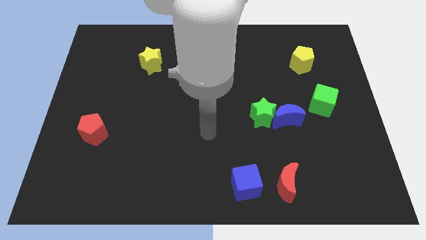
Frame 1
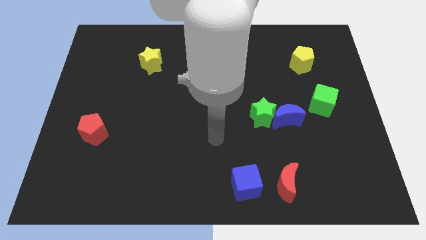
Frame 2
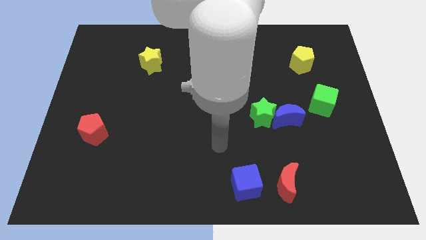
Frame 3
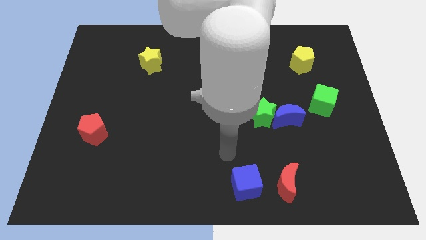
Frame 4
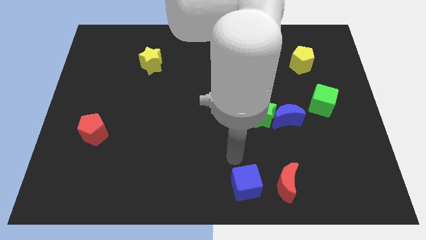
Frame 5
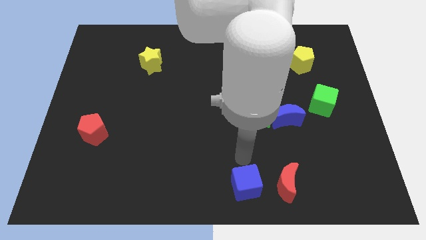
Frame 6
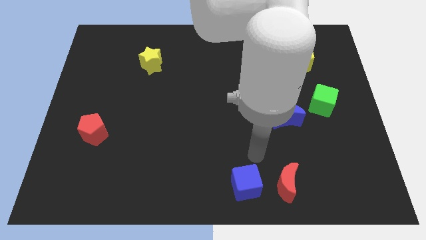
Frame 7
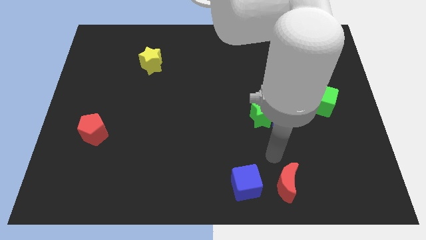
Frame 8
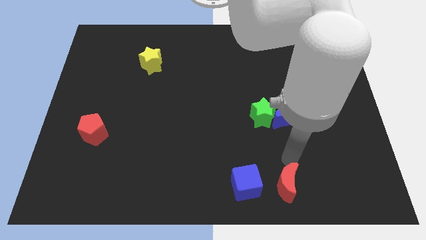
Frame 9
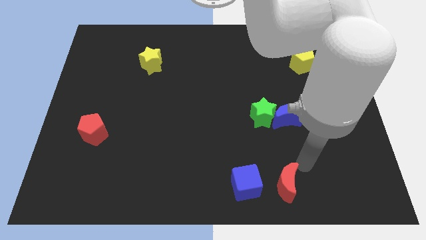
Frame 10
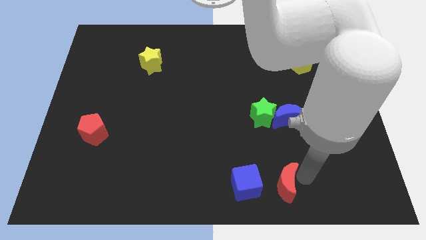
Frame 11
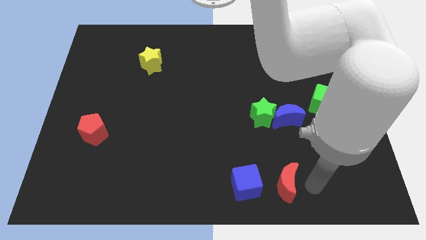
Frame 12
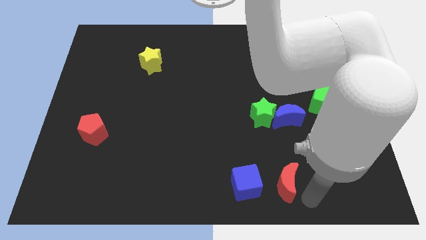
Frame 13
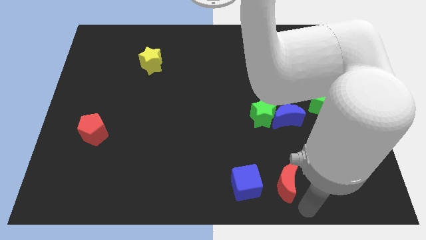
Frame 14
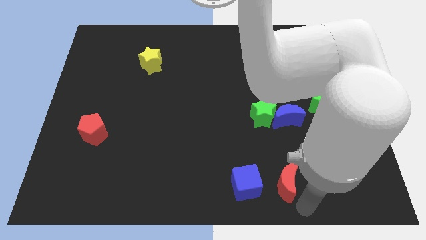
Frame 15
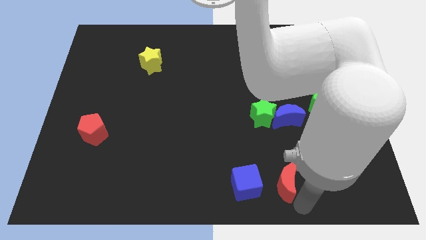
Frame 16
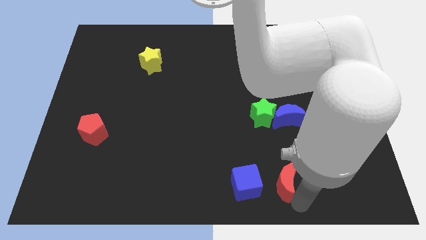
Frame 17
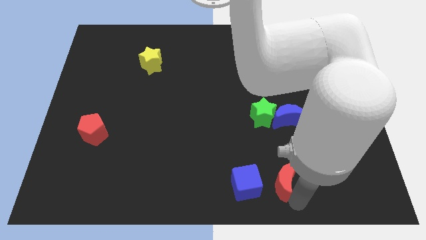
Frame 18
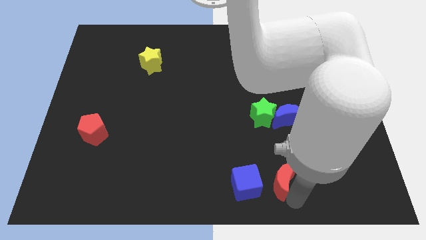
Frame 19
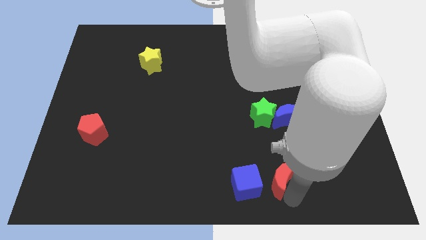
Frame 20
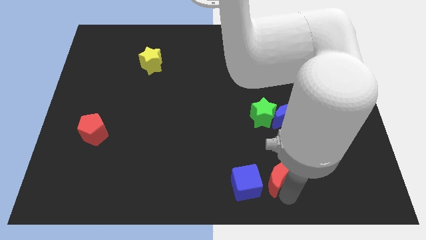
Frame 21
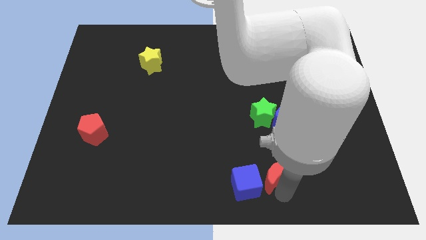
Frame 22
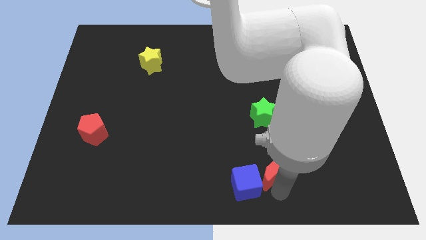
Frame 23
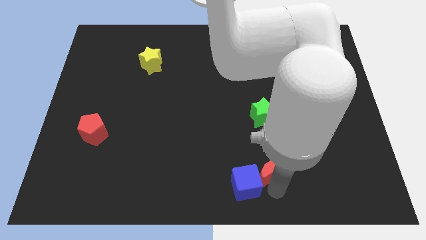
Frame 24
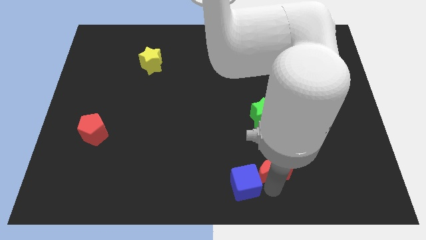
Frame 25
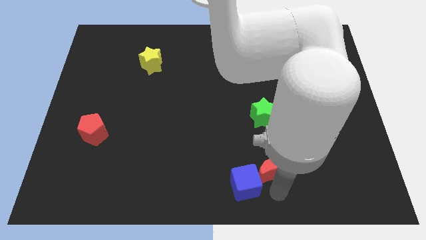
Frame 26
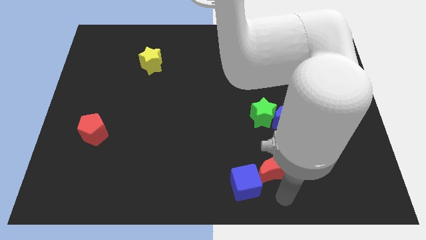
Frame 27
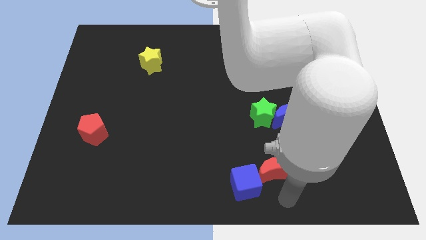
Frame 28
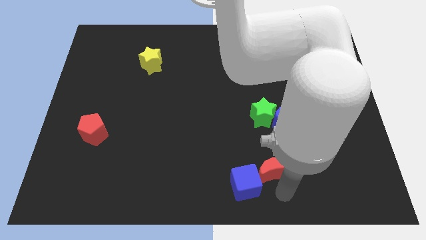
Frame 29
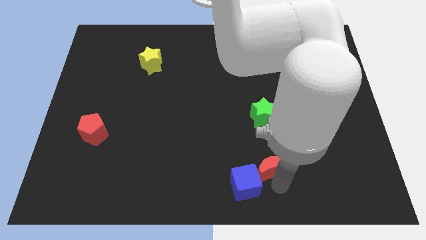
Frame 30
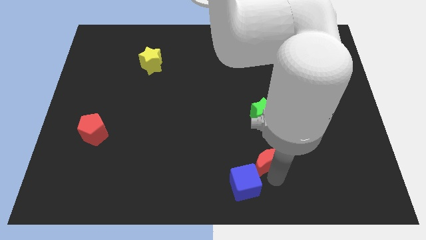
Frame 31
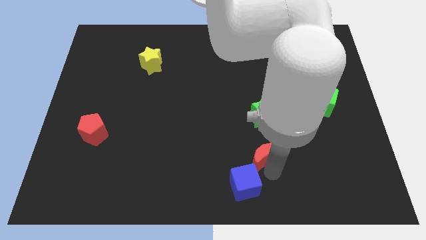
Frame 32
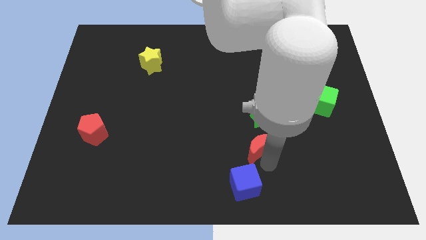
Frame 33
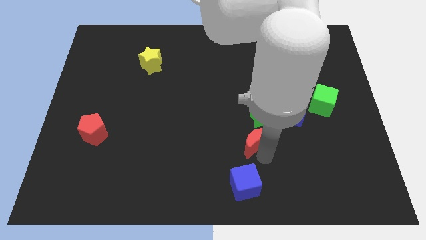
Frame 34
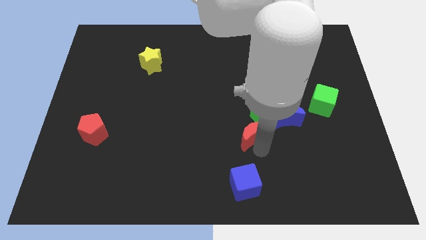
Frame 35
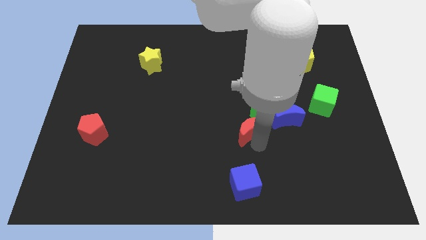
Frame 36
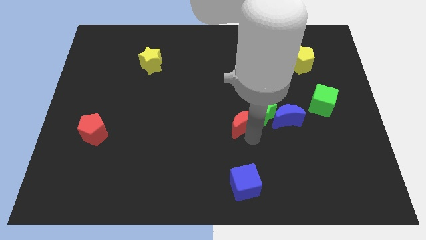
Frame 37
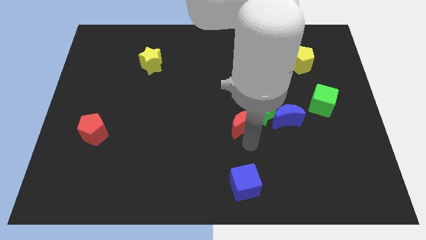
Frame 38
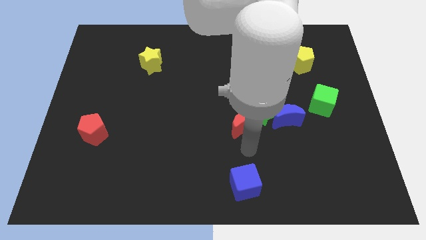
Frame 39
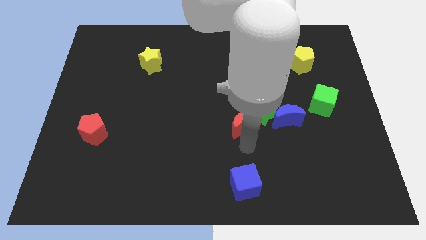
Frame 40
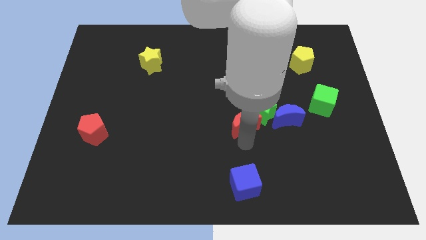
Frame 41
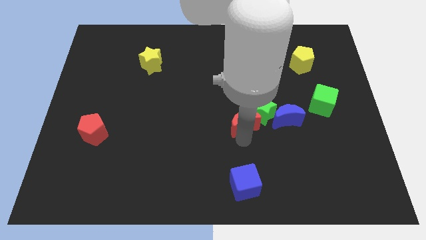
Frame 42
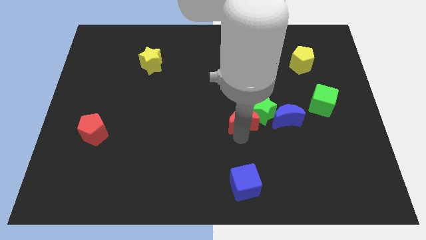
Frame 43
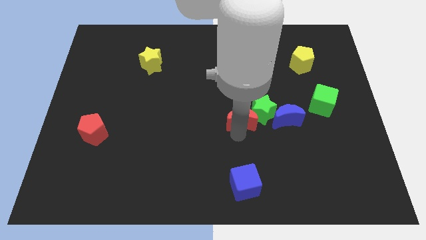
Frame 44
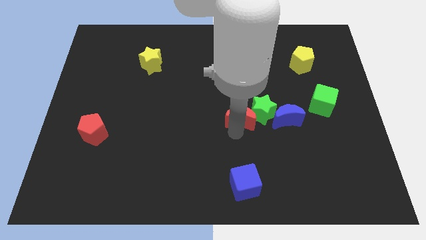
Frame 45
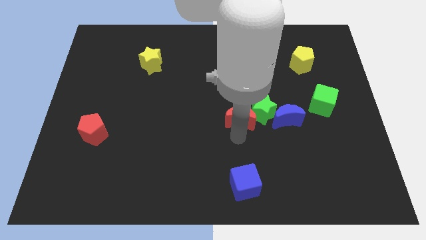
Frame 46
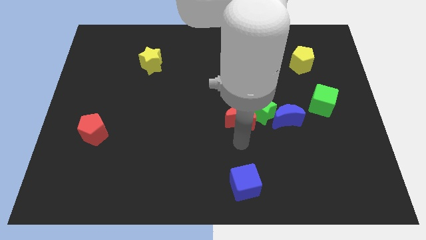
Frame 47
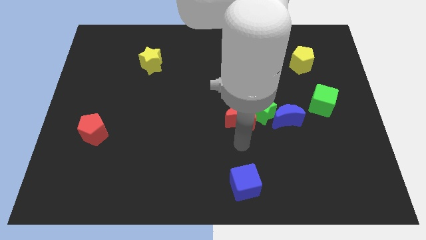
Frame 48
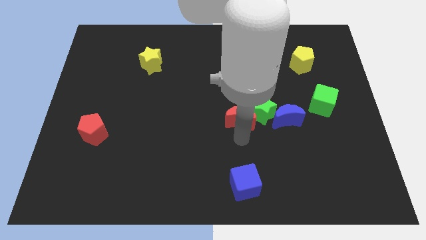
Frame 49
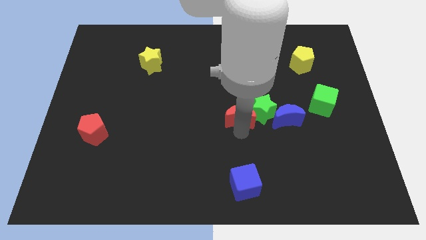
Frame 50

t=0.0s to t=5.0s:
push the red moon diagonally up and to the left of the green star

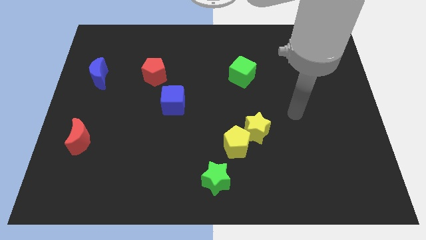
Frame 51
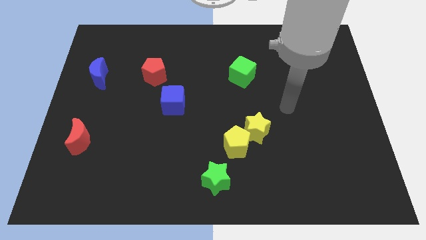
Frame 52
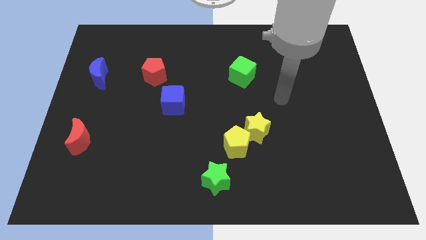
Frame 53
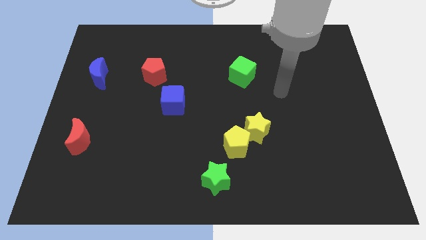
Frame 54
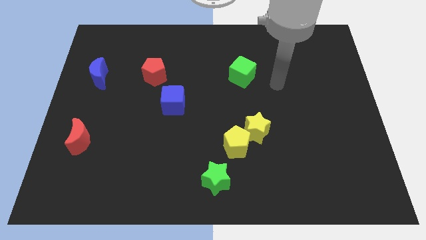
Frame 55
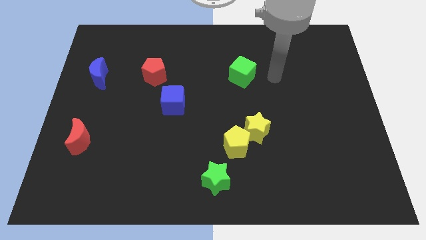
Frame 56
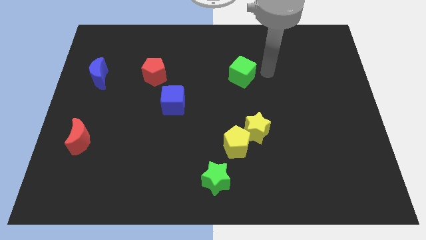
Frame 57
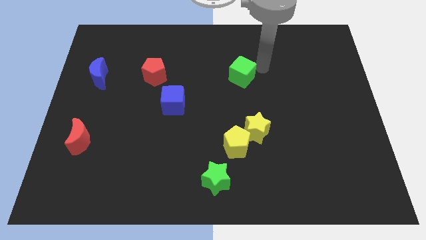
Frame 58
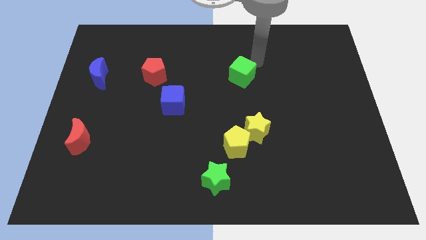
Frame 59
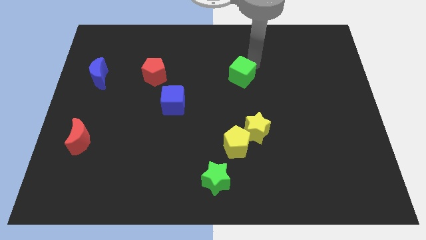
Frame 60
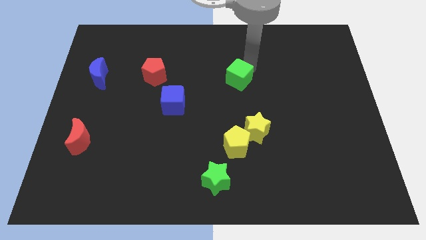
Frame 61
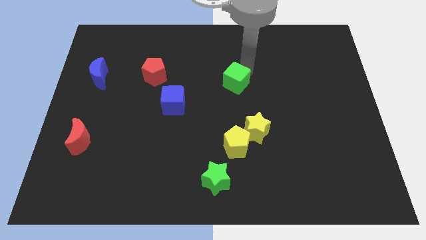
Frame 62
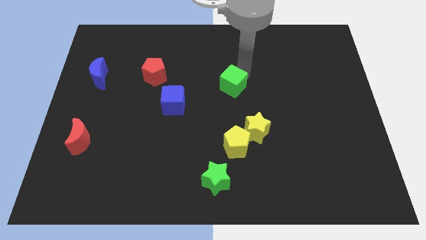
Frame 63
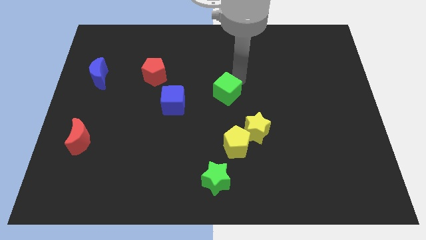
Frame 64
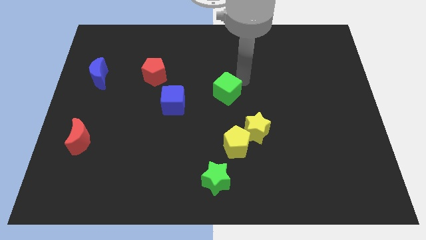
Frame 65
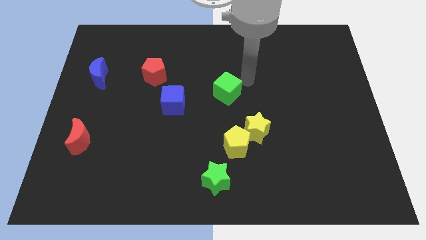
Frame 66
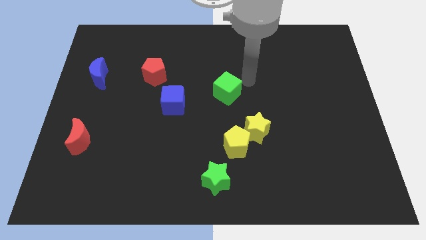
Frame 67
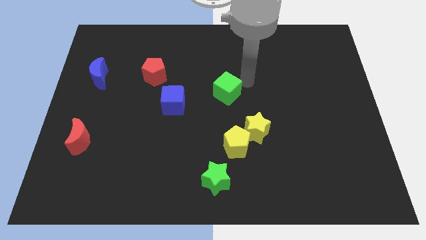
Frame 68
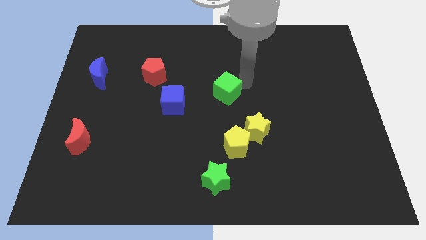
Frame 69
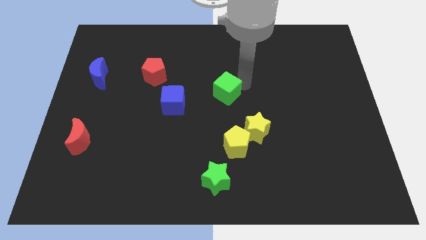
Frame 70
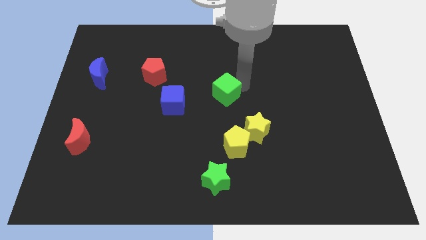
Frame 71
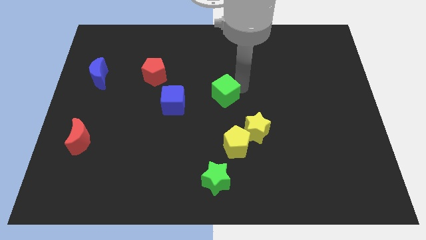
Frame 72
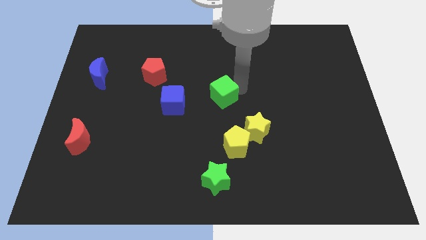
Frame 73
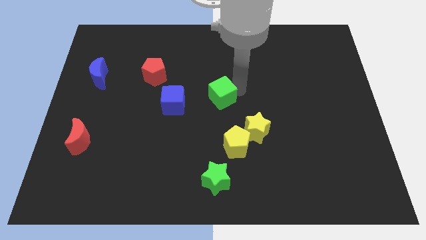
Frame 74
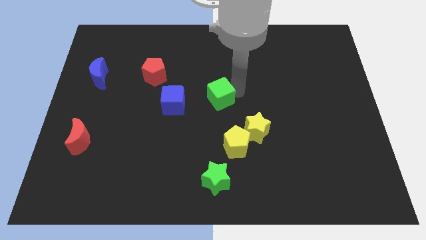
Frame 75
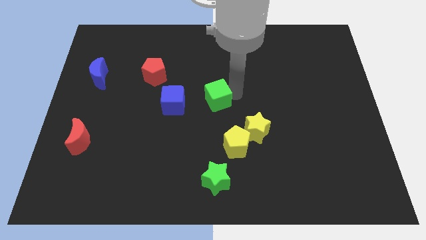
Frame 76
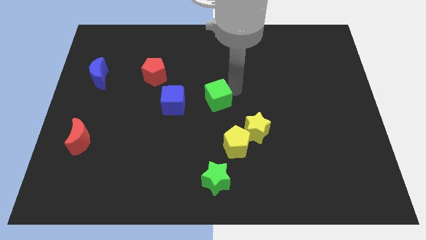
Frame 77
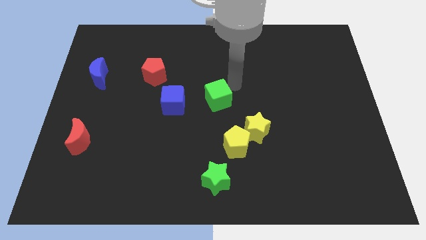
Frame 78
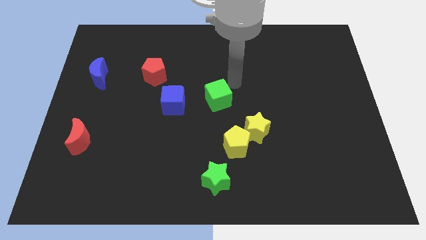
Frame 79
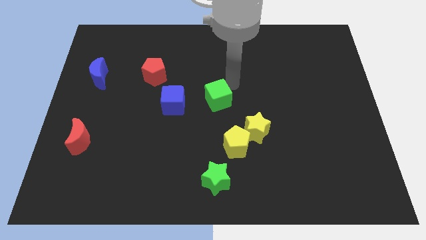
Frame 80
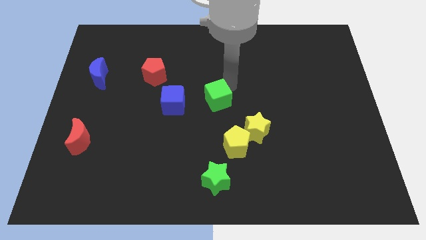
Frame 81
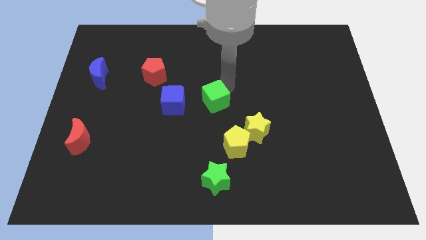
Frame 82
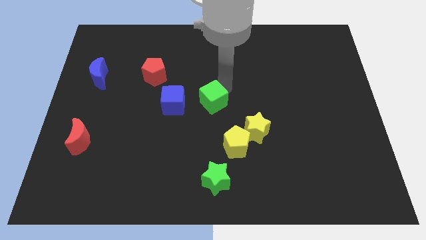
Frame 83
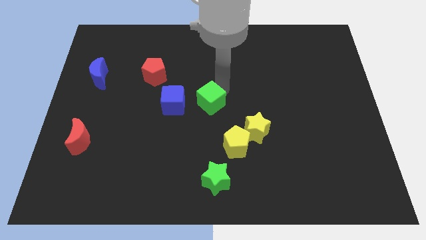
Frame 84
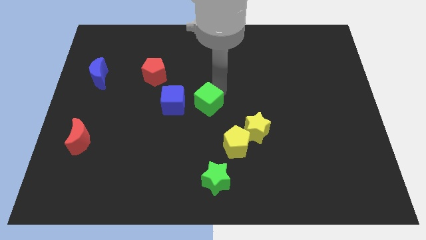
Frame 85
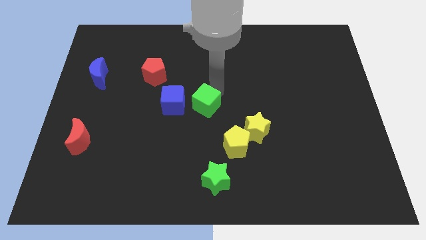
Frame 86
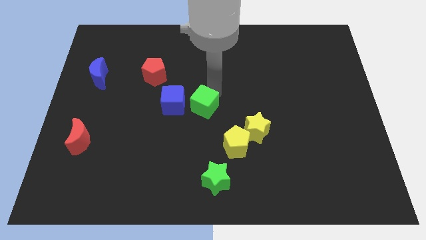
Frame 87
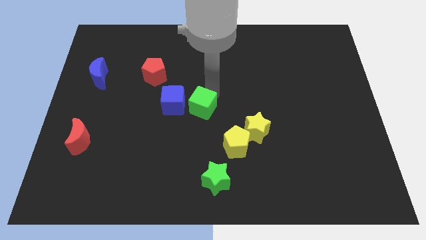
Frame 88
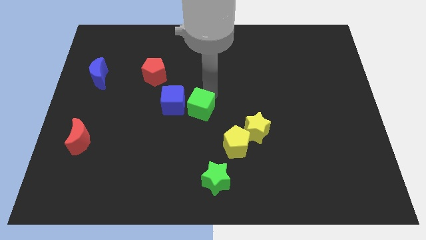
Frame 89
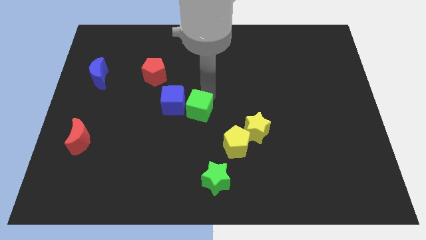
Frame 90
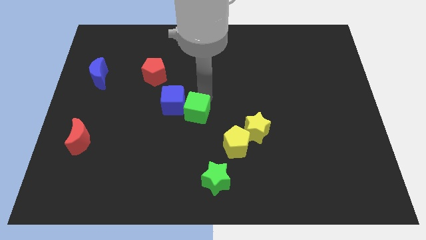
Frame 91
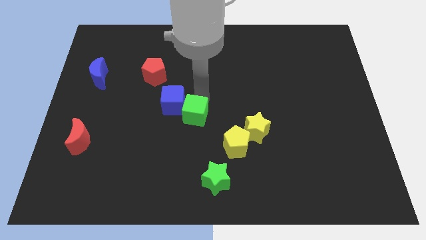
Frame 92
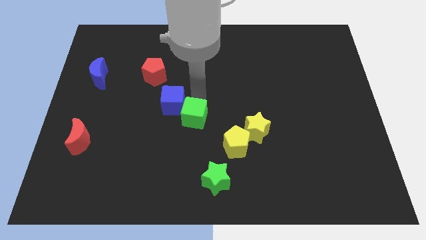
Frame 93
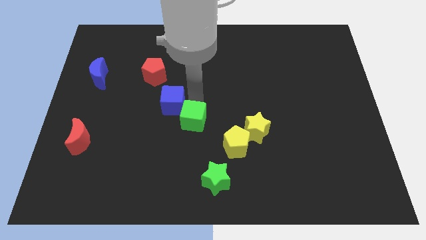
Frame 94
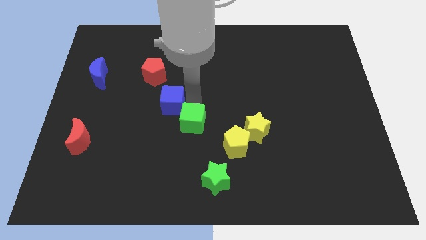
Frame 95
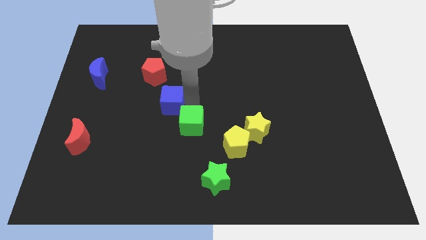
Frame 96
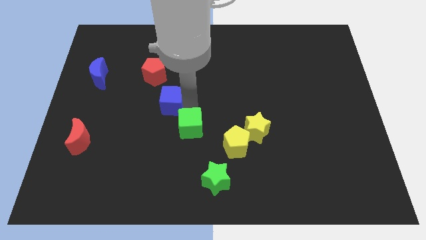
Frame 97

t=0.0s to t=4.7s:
slide the green cube to the left side of the yellow pentagon
